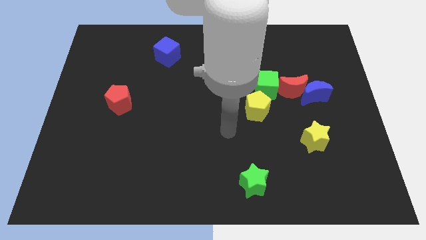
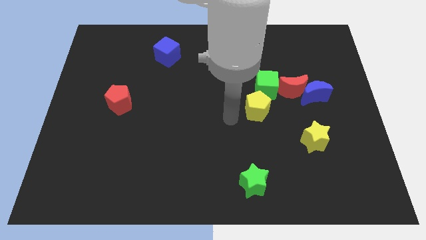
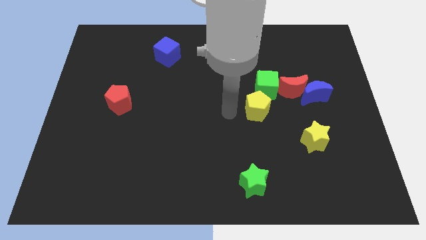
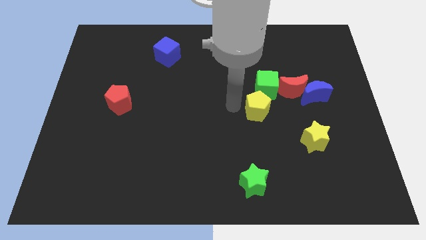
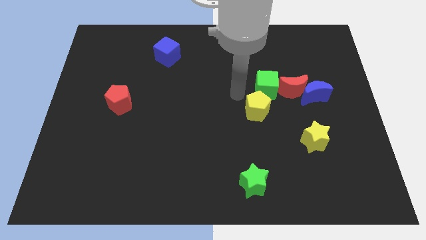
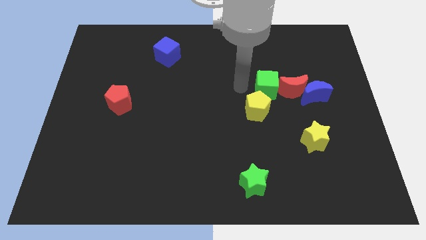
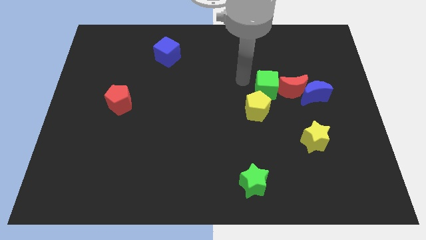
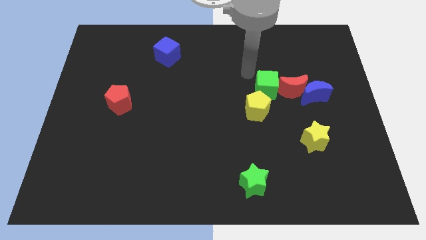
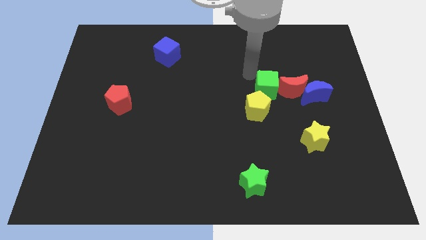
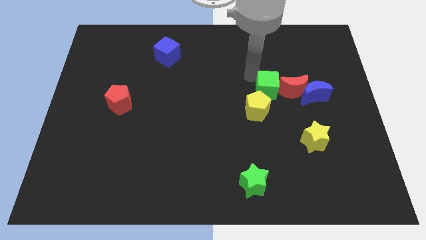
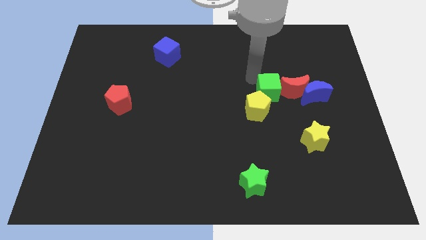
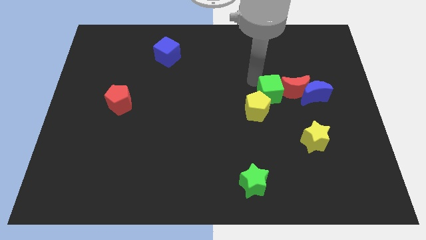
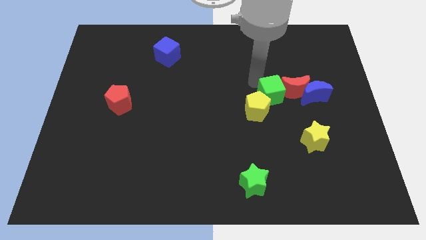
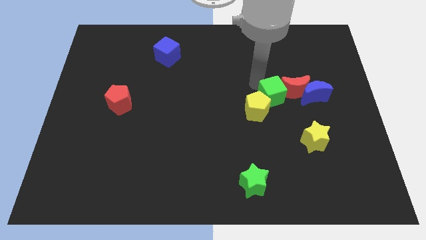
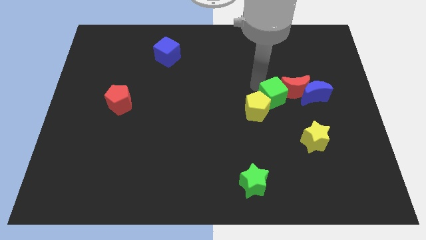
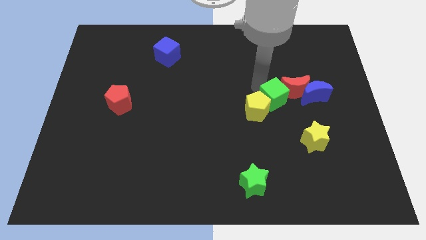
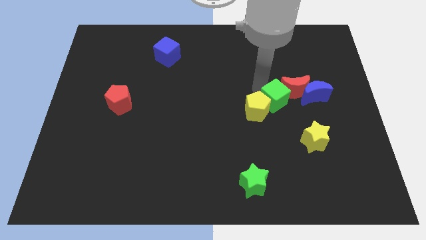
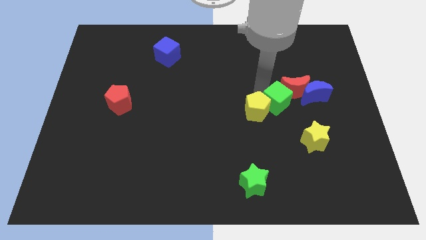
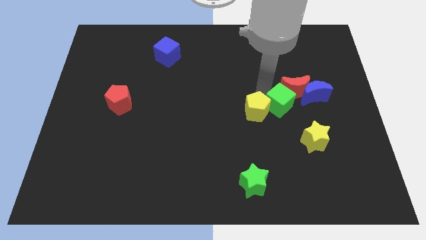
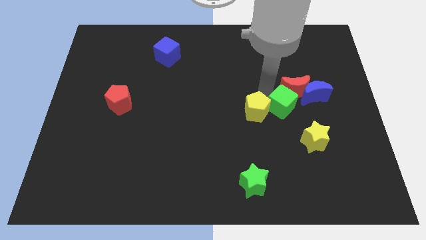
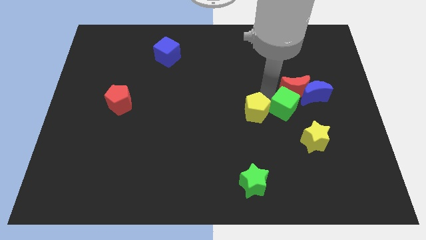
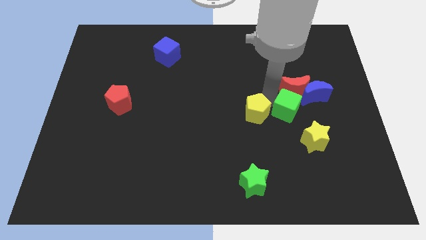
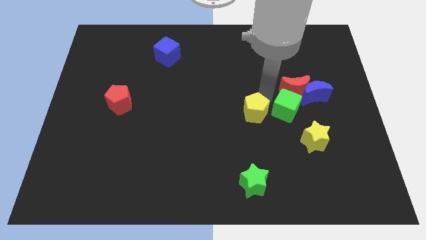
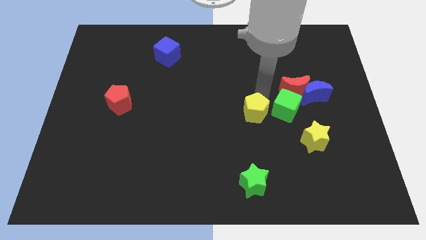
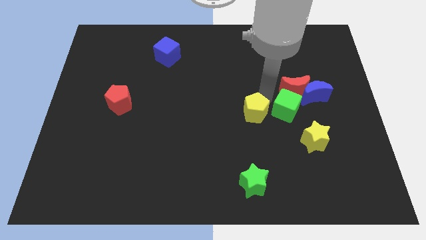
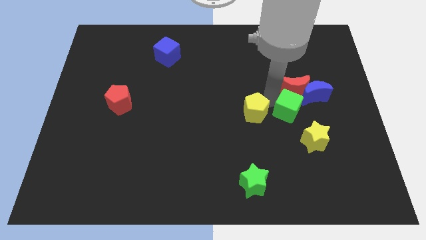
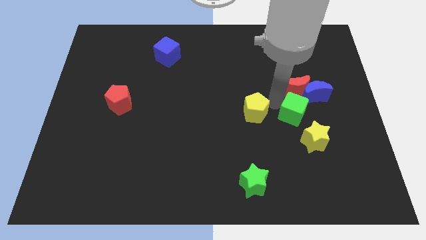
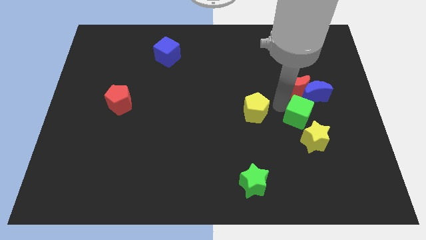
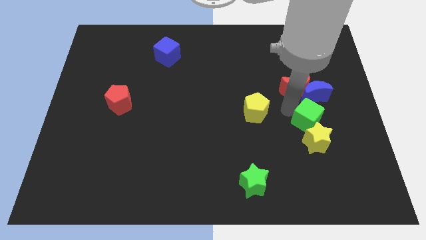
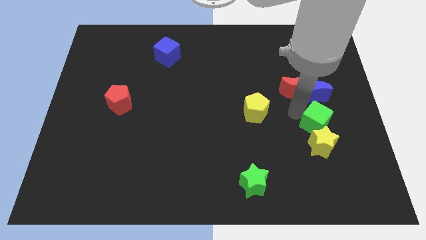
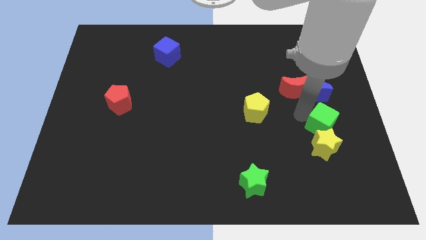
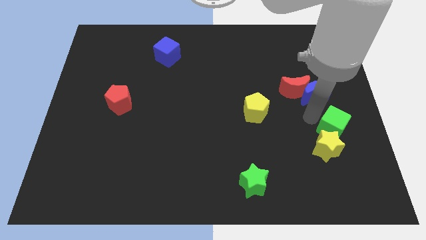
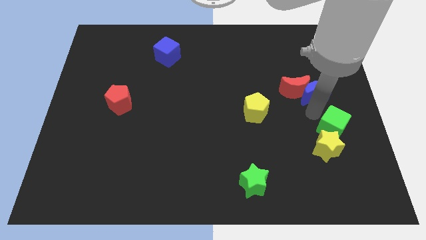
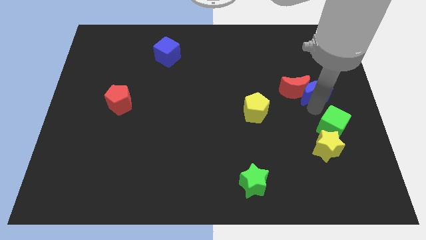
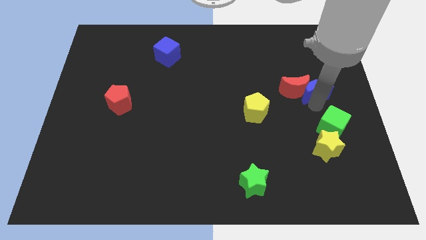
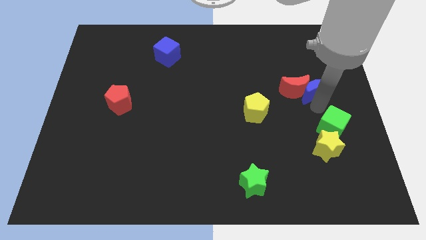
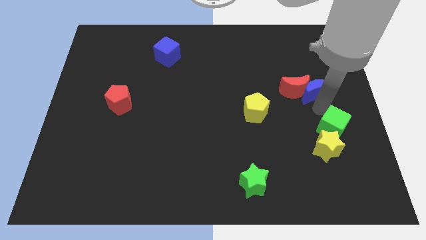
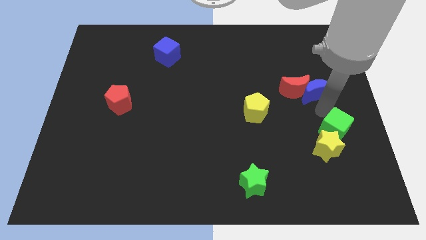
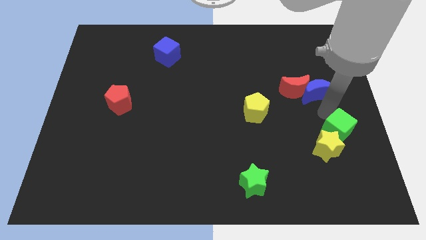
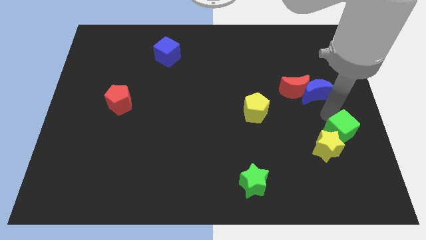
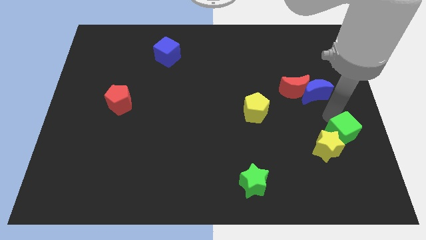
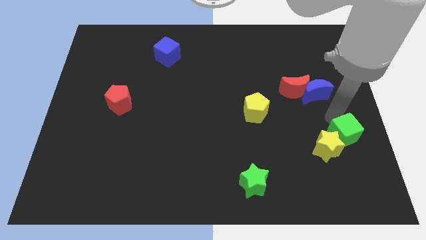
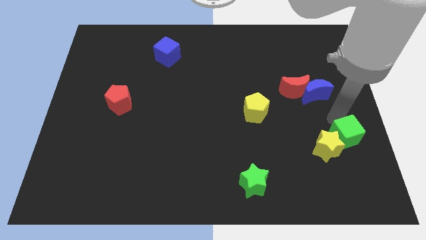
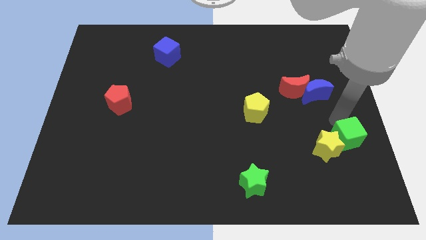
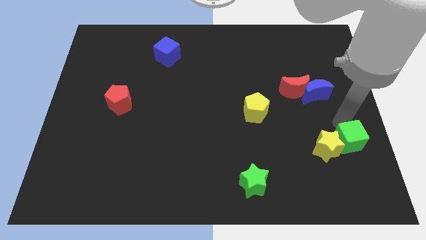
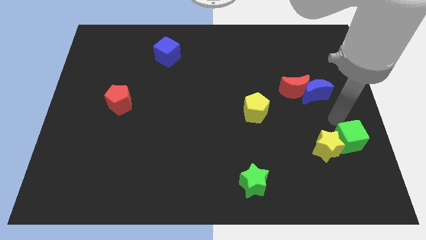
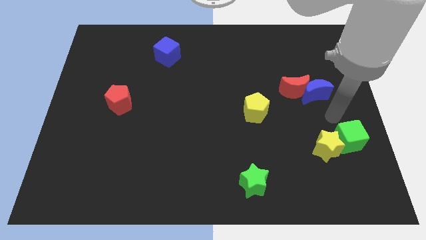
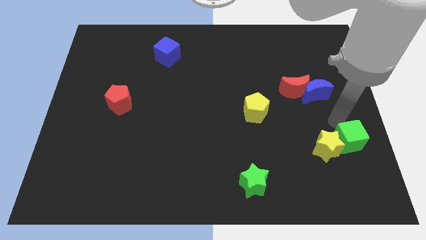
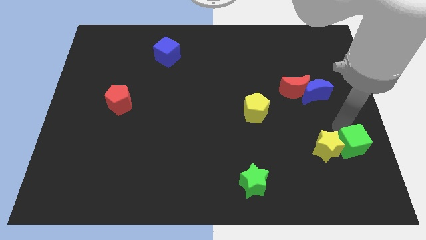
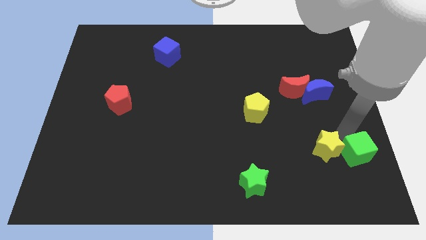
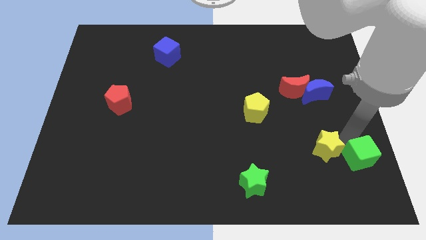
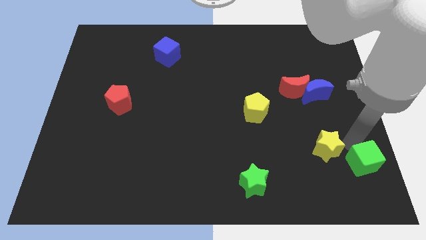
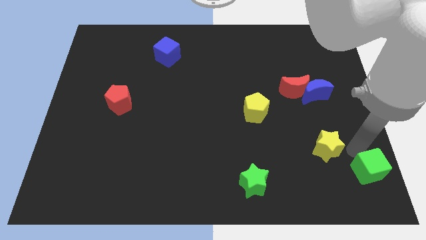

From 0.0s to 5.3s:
move the green cube to the lower right corner
